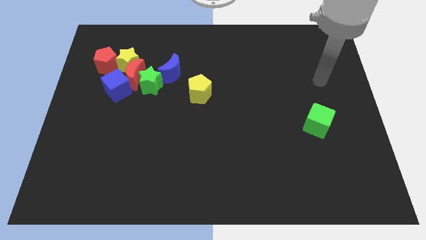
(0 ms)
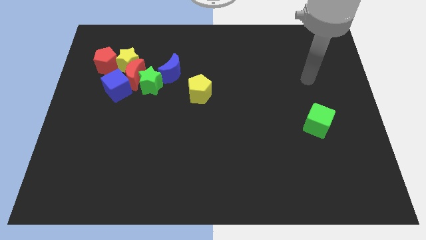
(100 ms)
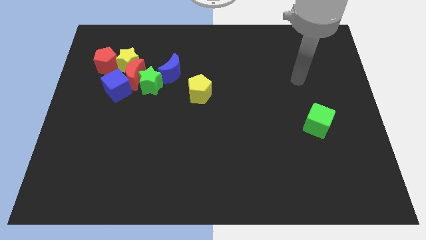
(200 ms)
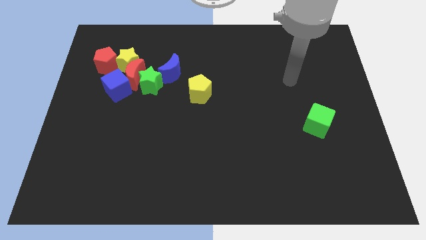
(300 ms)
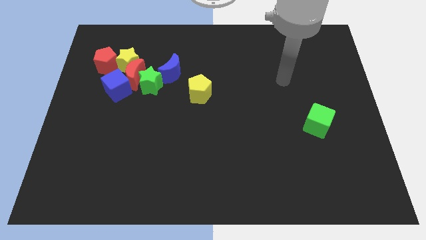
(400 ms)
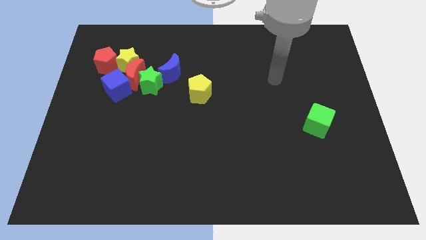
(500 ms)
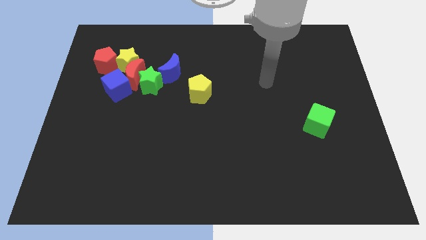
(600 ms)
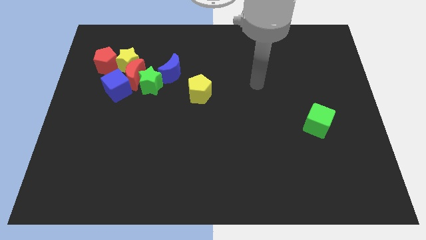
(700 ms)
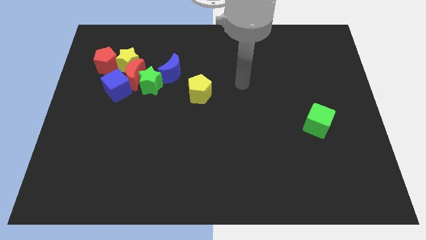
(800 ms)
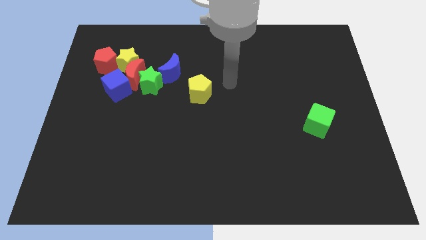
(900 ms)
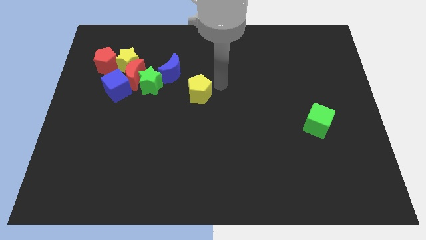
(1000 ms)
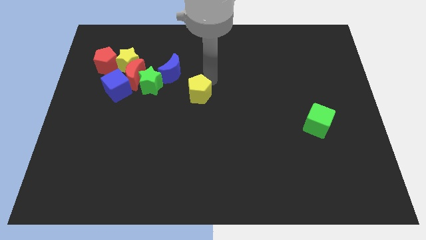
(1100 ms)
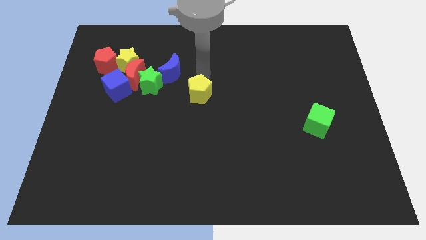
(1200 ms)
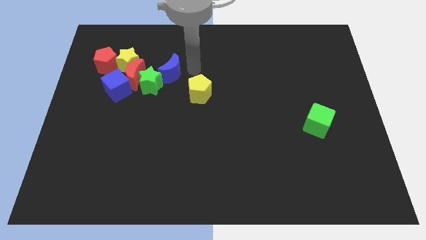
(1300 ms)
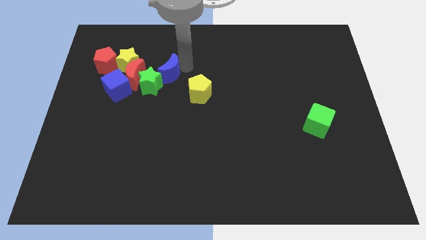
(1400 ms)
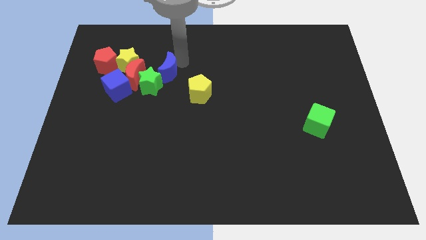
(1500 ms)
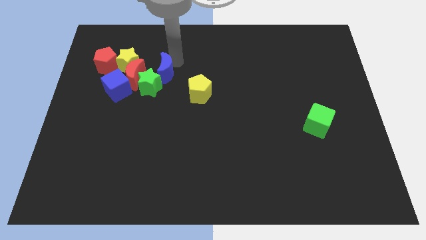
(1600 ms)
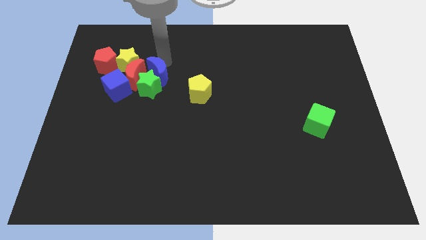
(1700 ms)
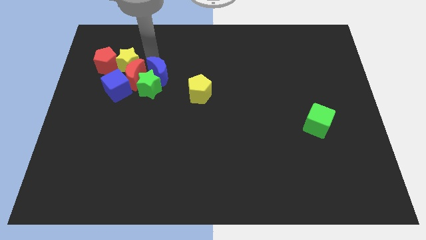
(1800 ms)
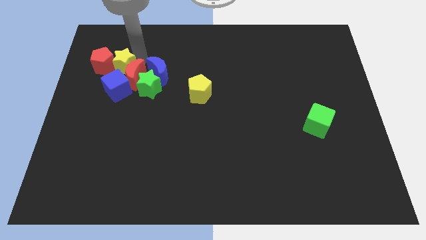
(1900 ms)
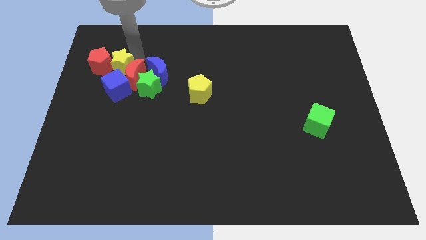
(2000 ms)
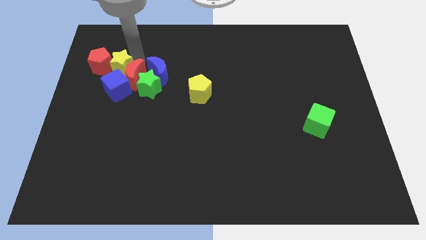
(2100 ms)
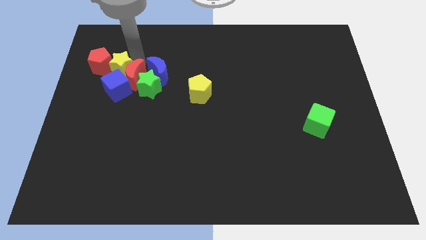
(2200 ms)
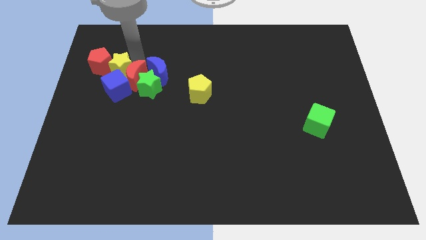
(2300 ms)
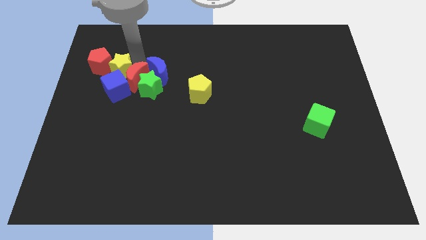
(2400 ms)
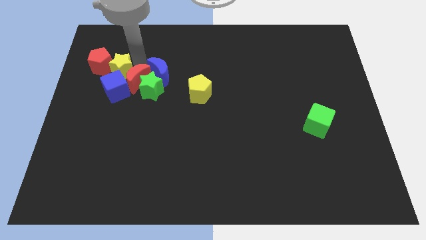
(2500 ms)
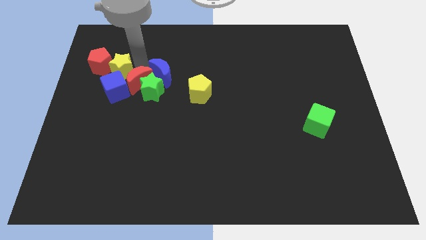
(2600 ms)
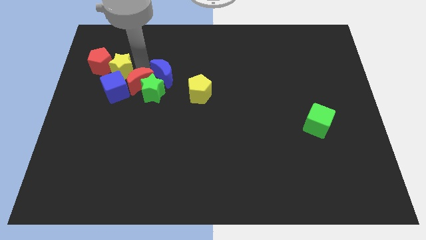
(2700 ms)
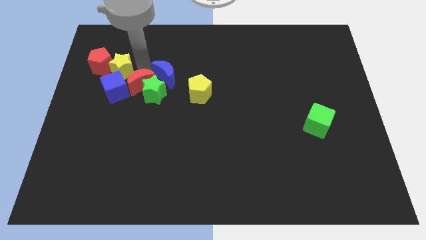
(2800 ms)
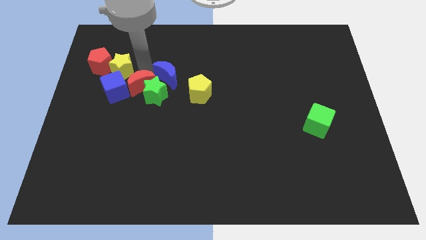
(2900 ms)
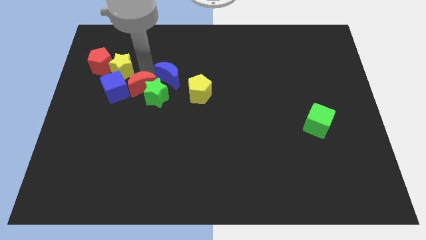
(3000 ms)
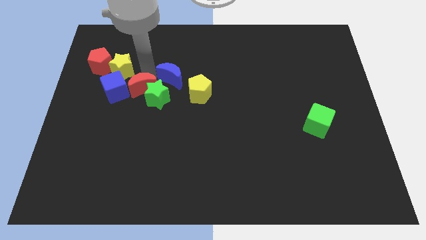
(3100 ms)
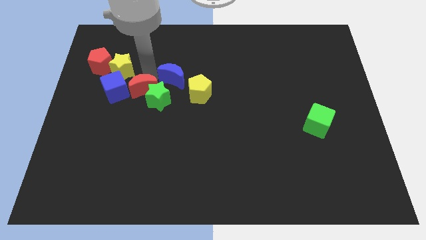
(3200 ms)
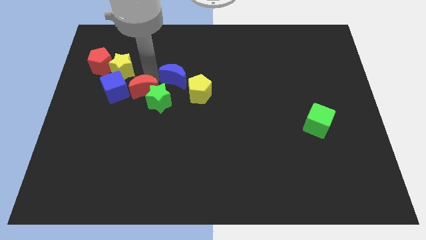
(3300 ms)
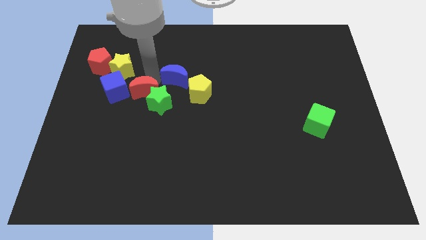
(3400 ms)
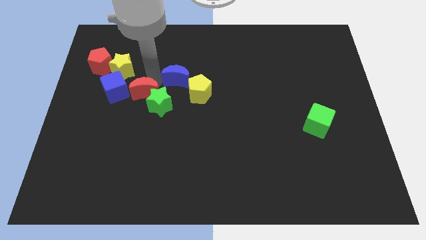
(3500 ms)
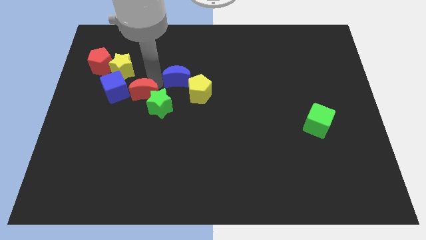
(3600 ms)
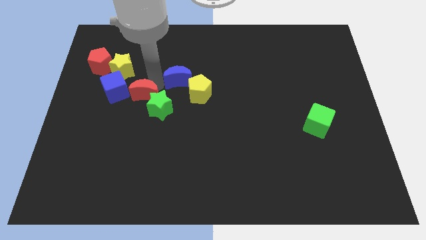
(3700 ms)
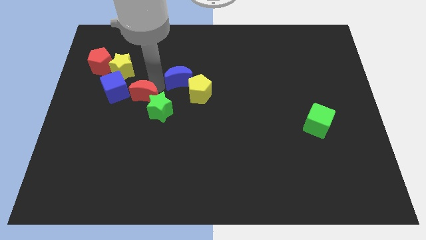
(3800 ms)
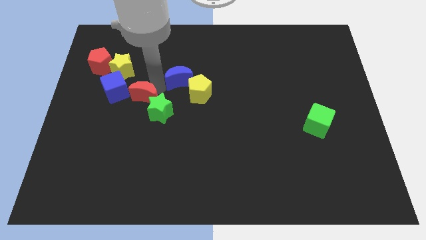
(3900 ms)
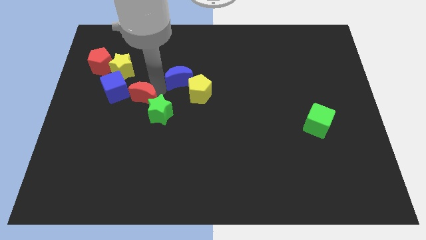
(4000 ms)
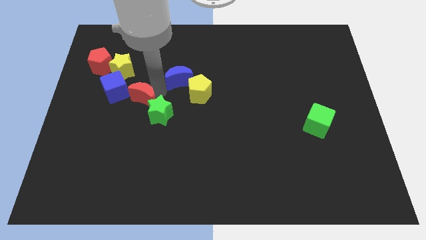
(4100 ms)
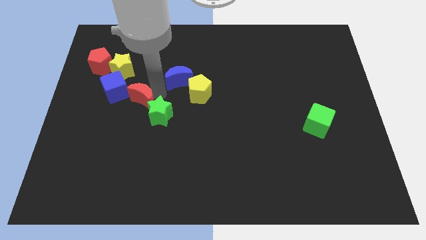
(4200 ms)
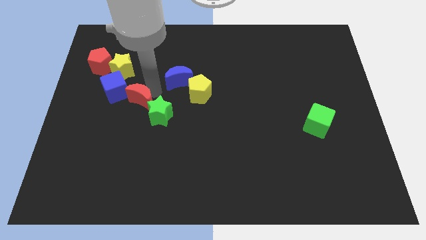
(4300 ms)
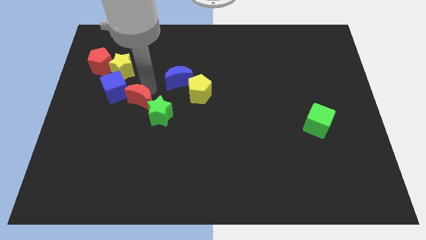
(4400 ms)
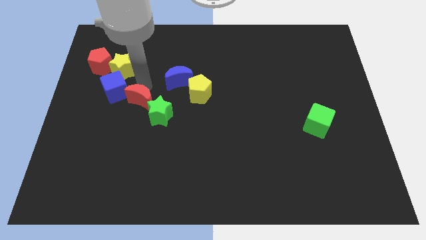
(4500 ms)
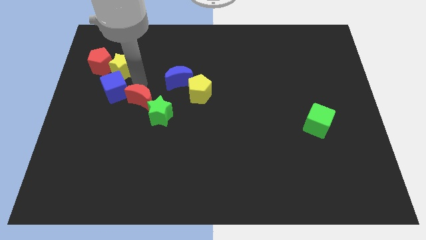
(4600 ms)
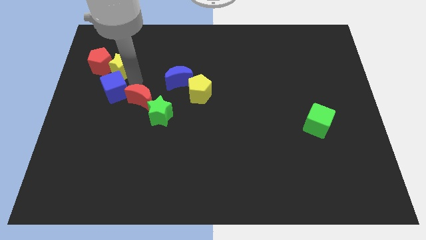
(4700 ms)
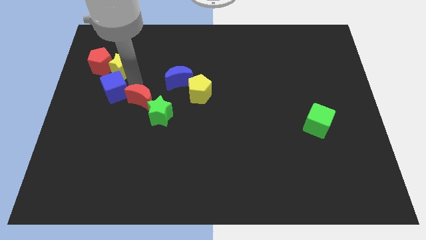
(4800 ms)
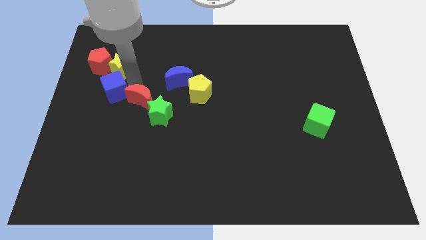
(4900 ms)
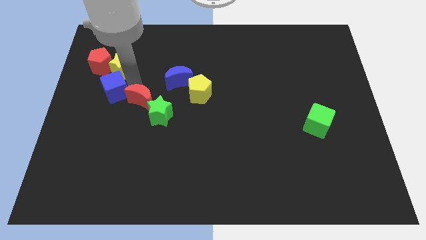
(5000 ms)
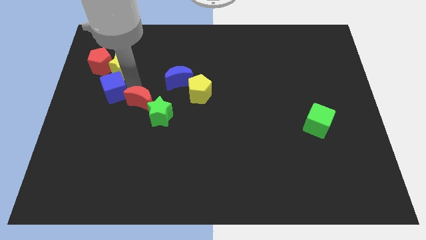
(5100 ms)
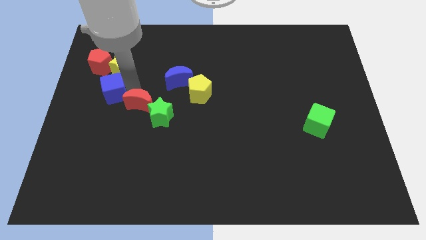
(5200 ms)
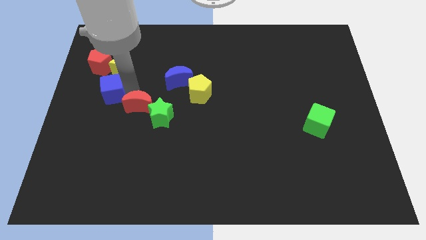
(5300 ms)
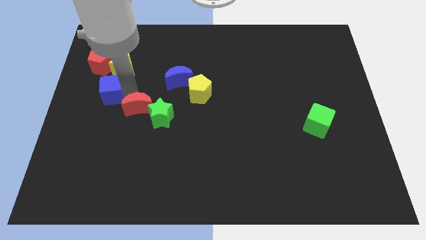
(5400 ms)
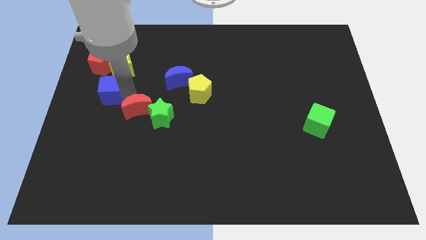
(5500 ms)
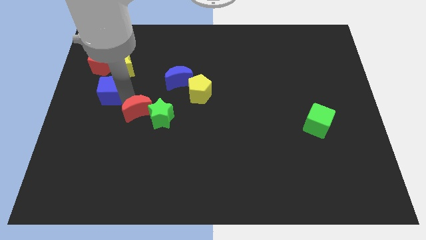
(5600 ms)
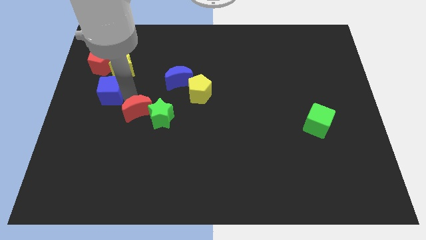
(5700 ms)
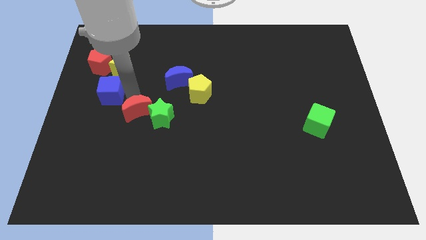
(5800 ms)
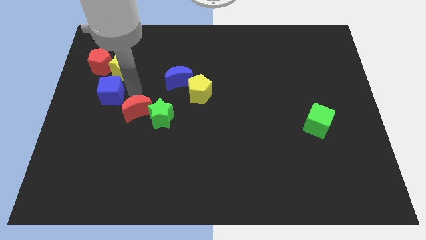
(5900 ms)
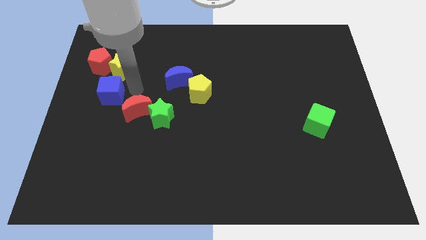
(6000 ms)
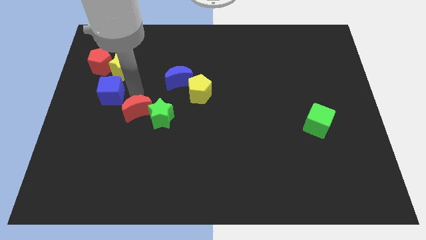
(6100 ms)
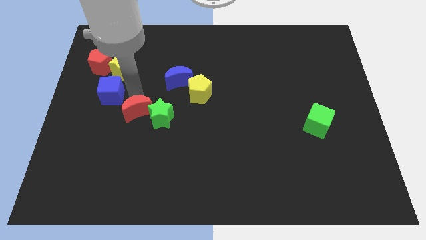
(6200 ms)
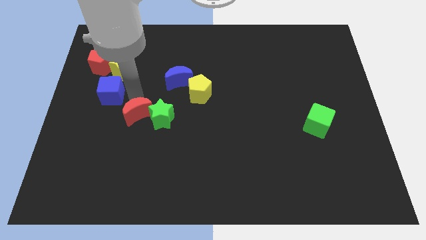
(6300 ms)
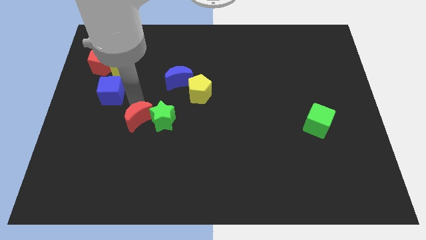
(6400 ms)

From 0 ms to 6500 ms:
separate the red moon from the clump

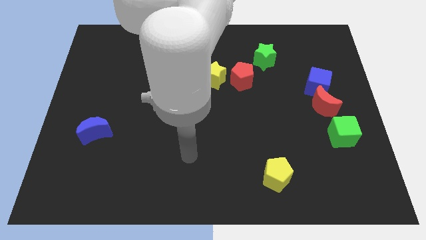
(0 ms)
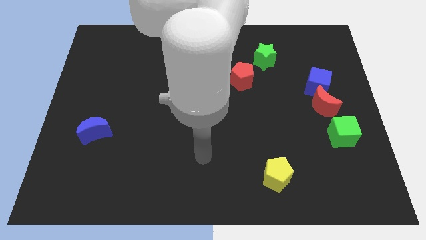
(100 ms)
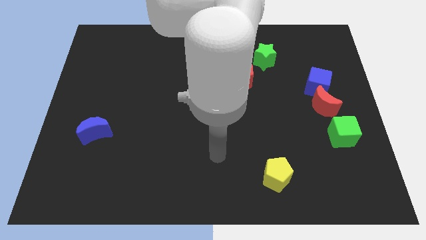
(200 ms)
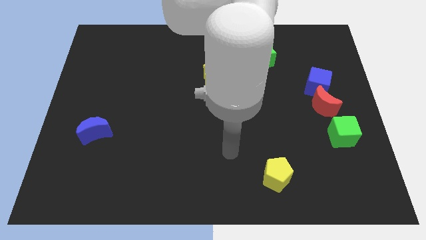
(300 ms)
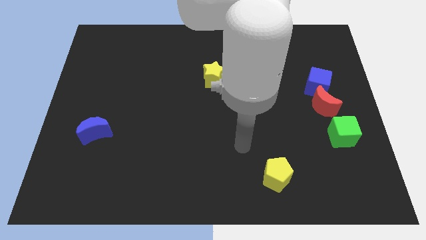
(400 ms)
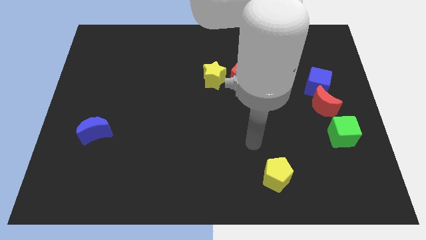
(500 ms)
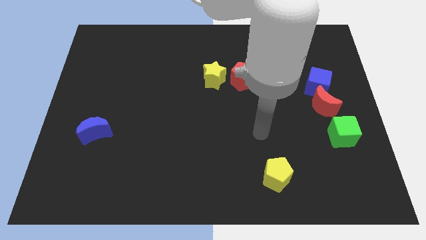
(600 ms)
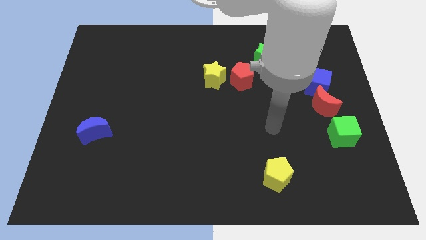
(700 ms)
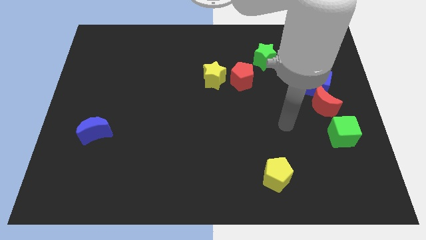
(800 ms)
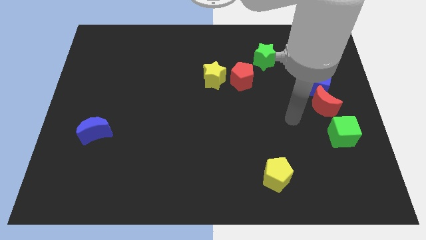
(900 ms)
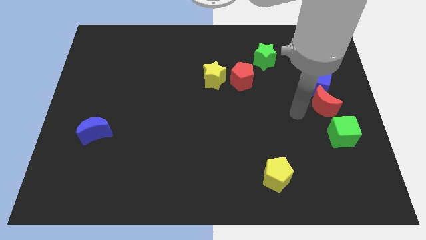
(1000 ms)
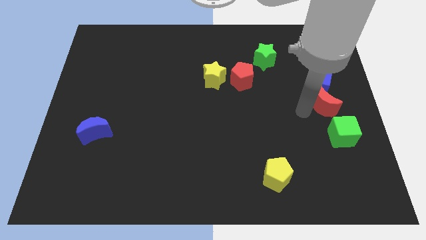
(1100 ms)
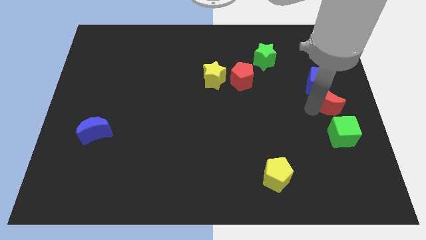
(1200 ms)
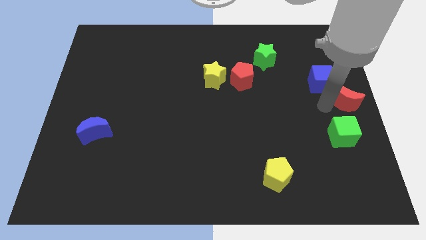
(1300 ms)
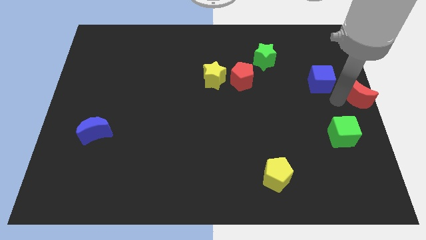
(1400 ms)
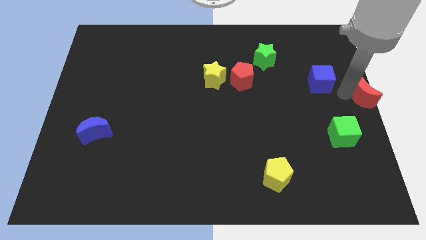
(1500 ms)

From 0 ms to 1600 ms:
pull the blue cube apart from the red moon

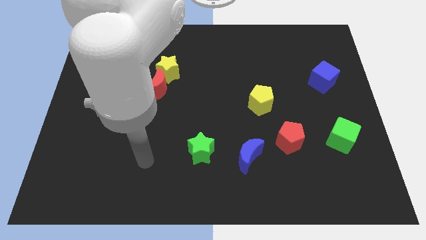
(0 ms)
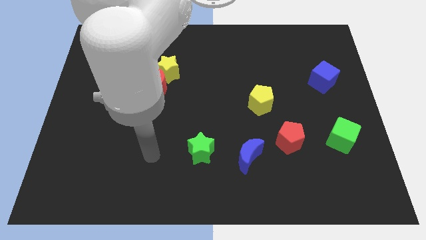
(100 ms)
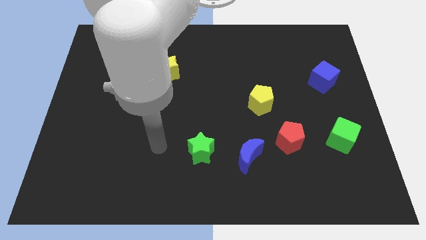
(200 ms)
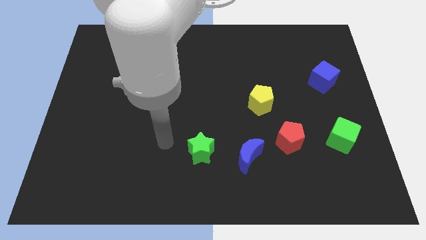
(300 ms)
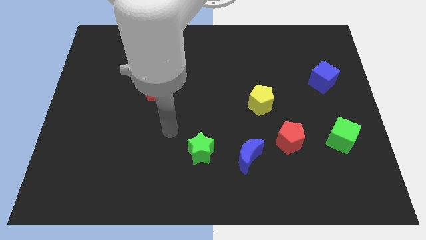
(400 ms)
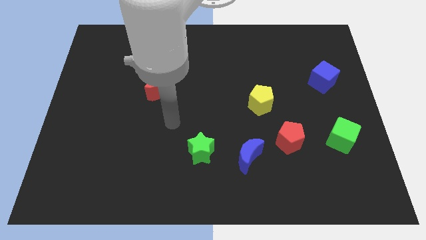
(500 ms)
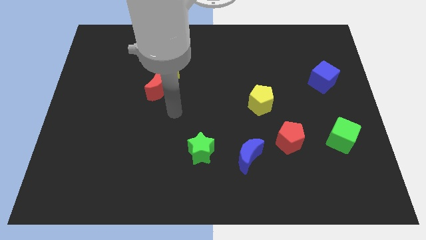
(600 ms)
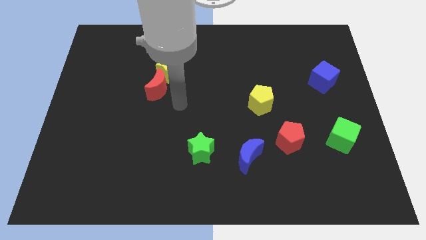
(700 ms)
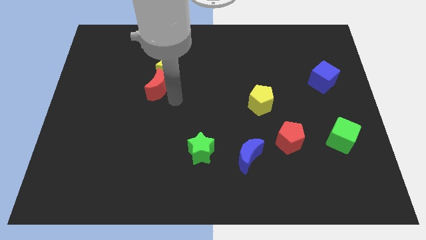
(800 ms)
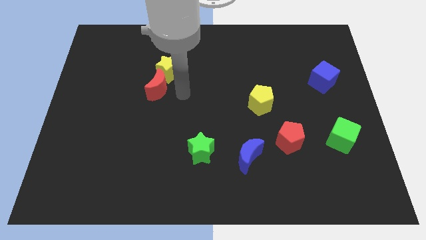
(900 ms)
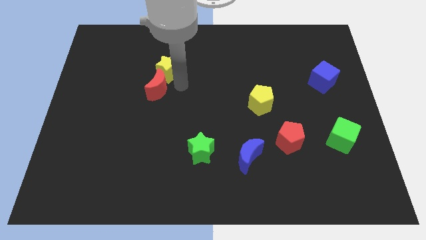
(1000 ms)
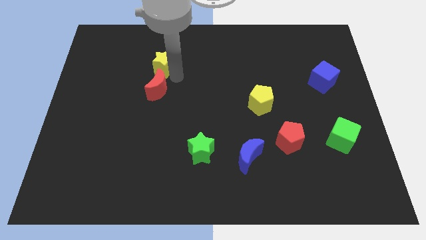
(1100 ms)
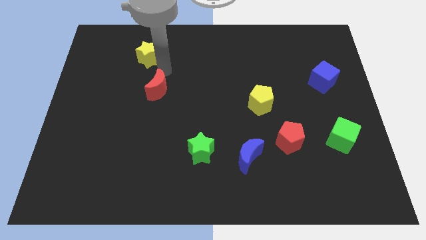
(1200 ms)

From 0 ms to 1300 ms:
pull the red moon apart from the yellow star
